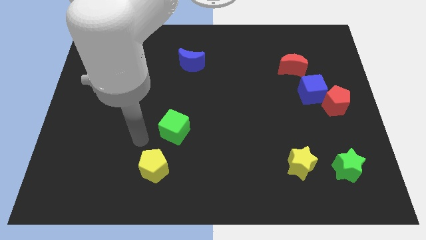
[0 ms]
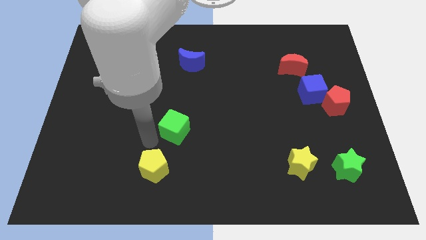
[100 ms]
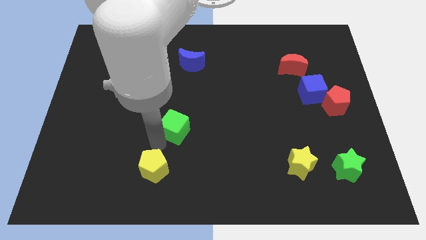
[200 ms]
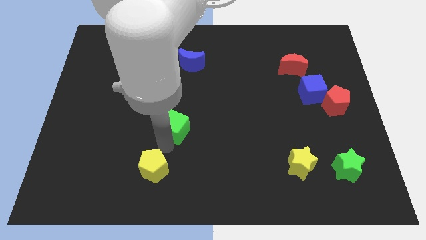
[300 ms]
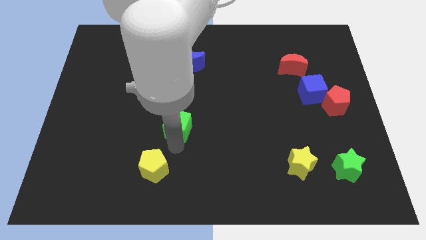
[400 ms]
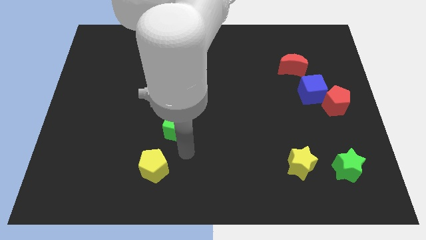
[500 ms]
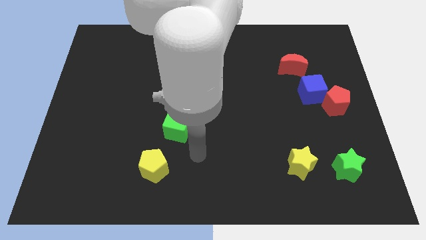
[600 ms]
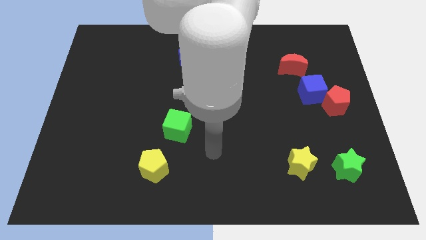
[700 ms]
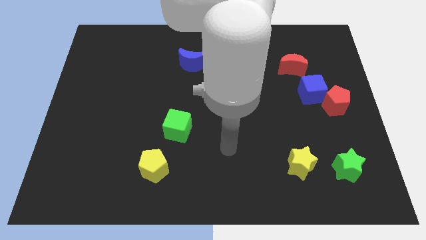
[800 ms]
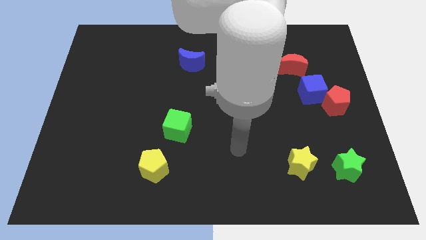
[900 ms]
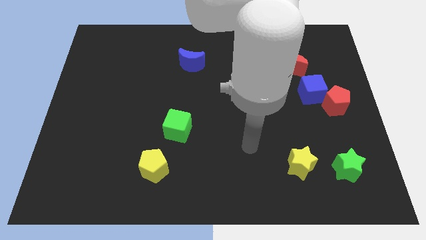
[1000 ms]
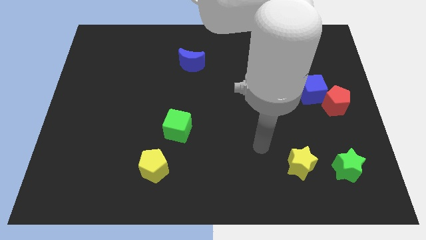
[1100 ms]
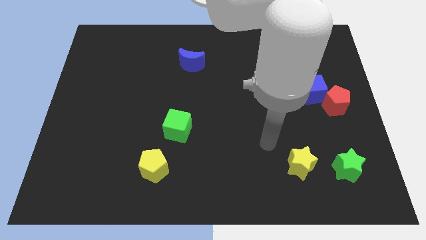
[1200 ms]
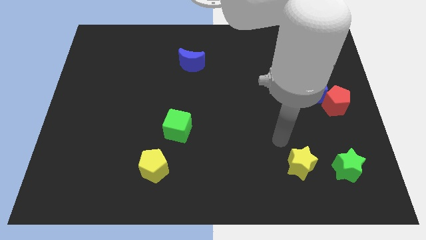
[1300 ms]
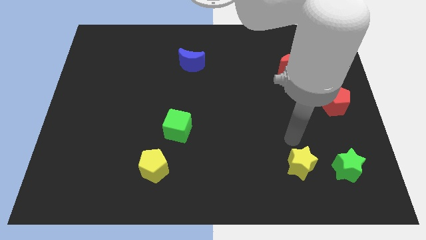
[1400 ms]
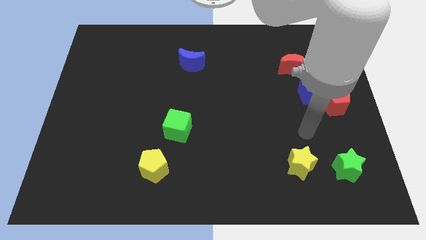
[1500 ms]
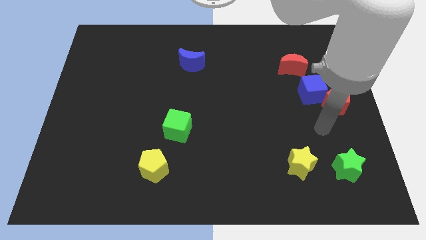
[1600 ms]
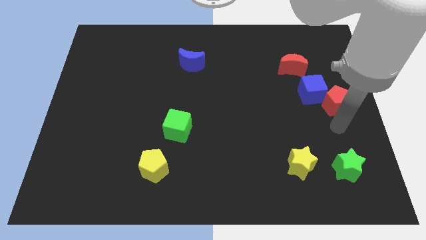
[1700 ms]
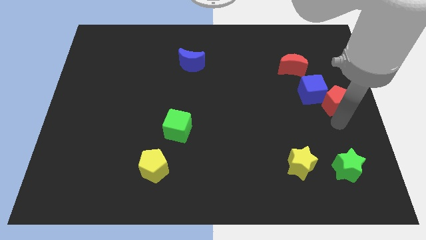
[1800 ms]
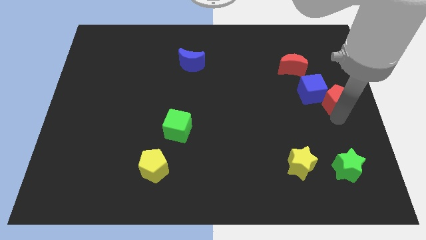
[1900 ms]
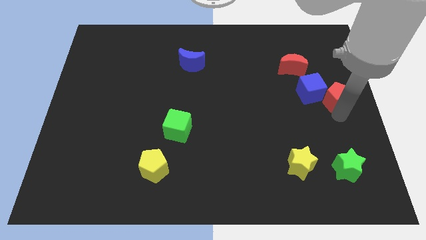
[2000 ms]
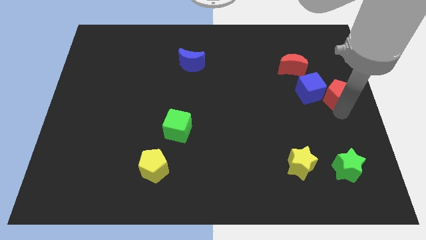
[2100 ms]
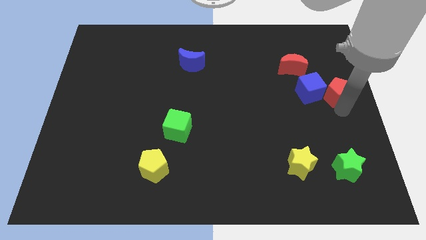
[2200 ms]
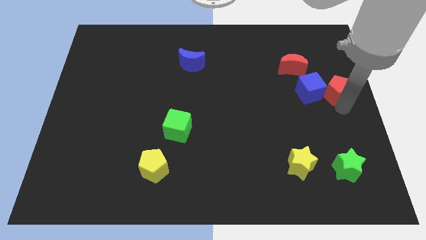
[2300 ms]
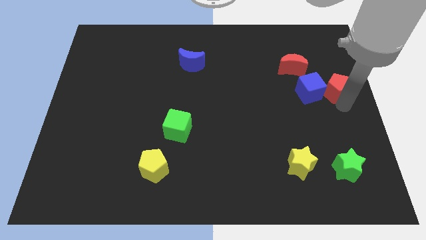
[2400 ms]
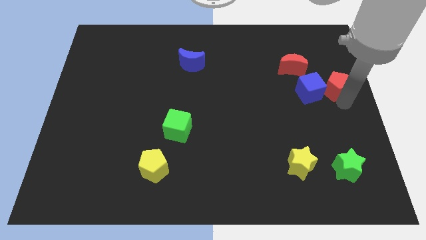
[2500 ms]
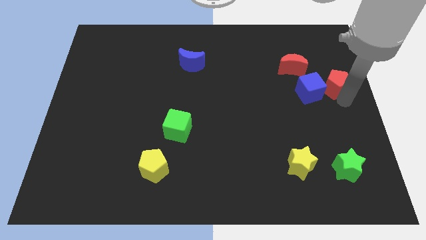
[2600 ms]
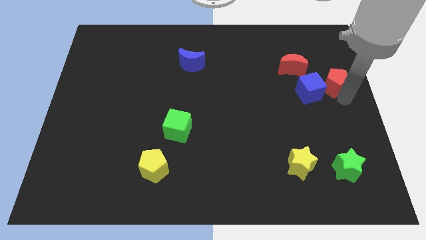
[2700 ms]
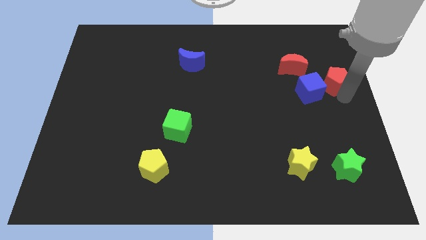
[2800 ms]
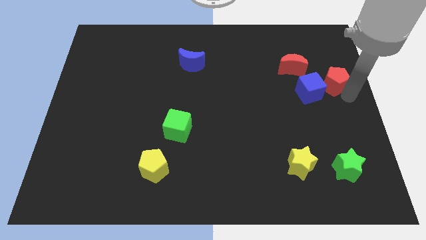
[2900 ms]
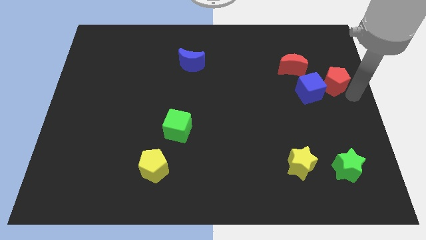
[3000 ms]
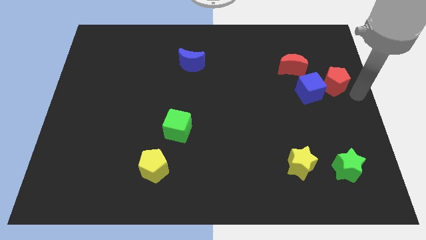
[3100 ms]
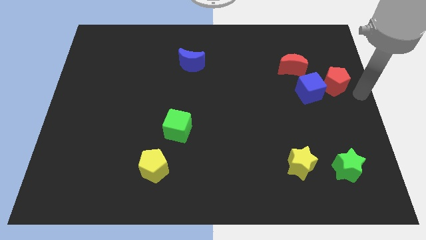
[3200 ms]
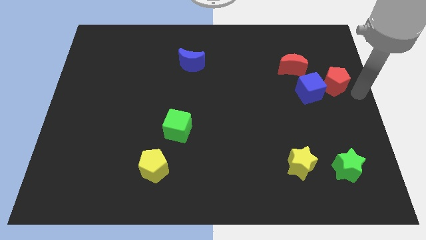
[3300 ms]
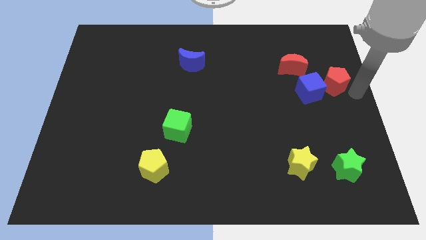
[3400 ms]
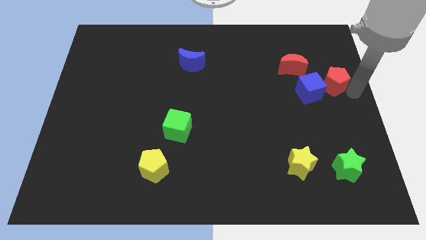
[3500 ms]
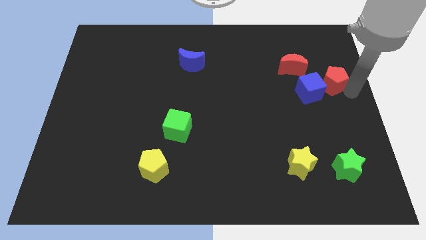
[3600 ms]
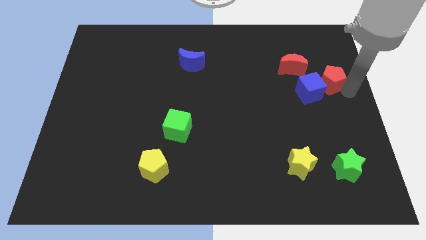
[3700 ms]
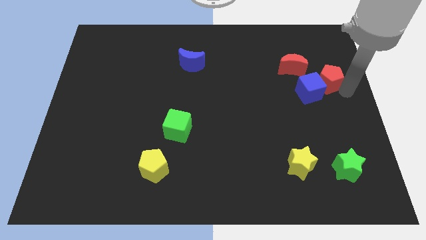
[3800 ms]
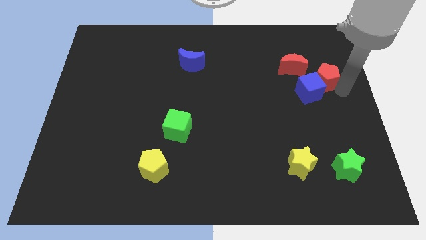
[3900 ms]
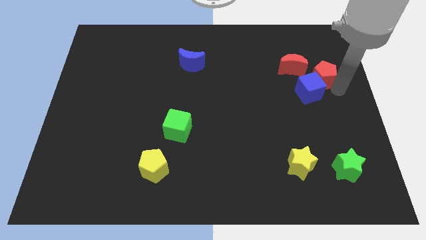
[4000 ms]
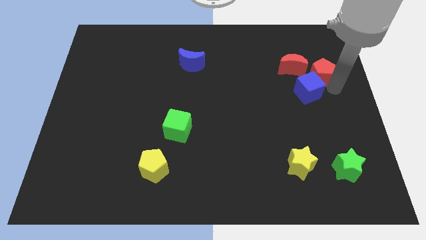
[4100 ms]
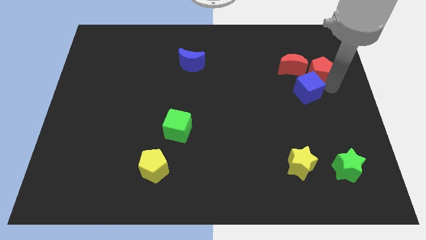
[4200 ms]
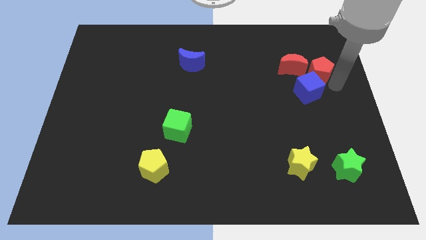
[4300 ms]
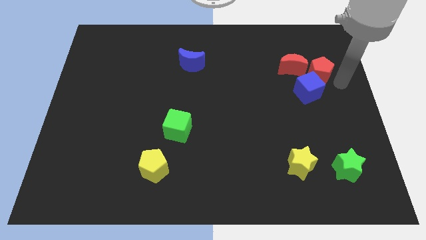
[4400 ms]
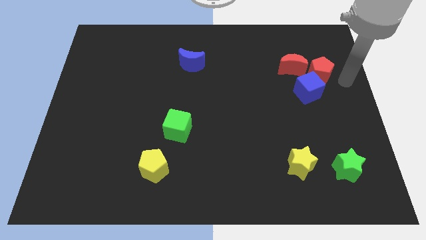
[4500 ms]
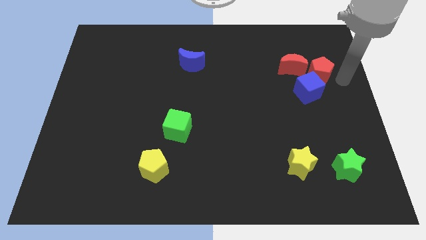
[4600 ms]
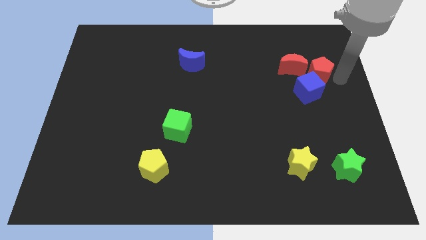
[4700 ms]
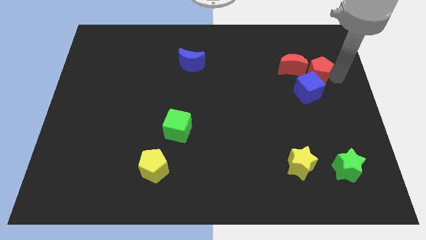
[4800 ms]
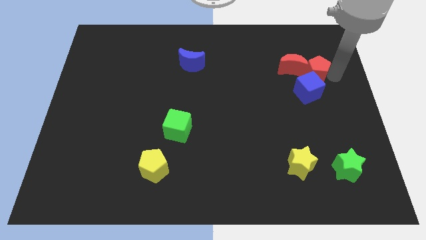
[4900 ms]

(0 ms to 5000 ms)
put the red pentagon to the red moon

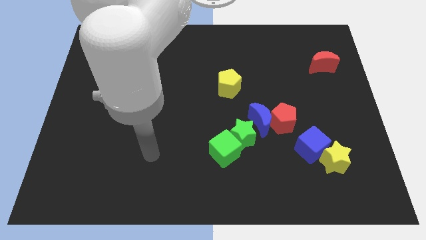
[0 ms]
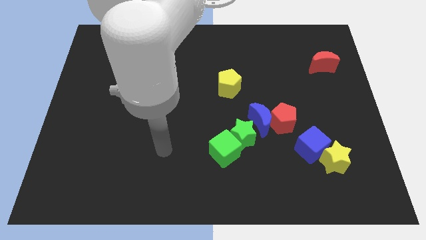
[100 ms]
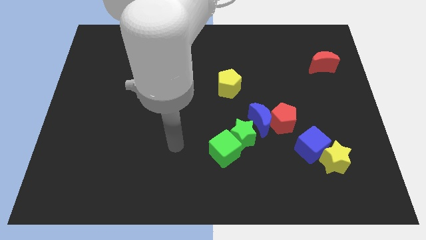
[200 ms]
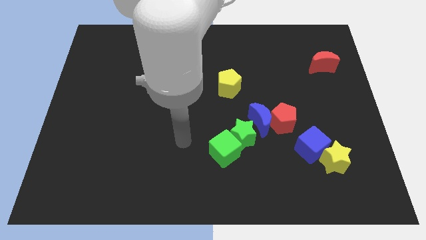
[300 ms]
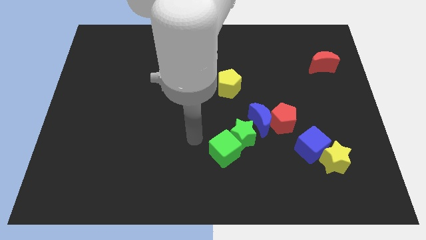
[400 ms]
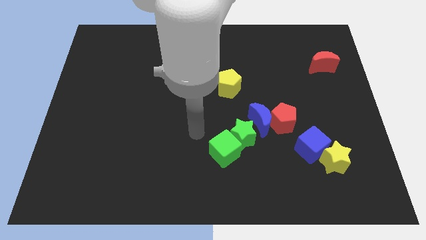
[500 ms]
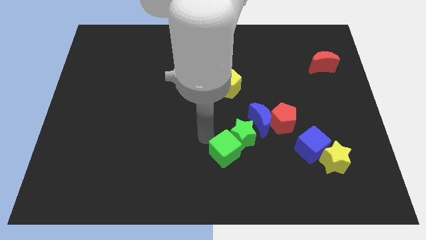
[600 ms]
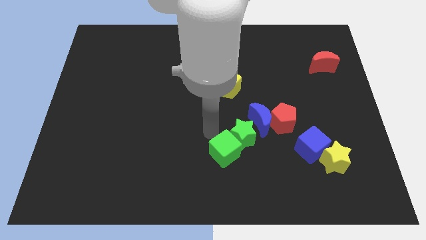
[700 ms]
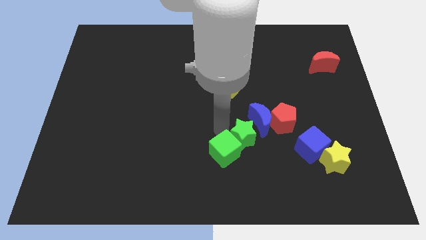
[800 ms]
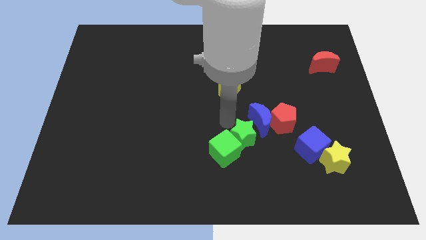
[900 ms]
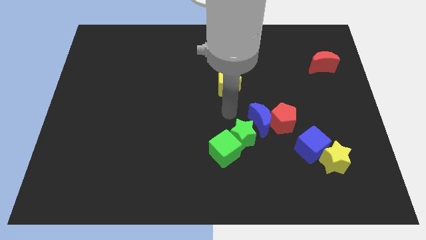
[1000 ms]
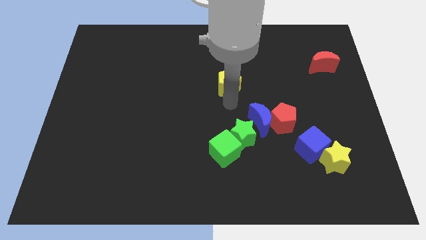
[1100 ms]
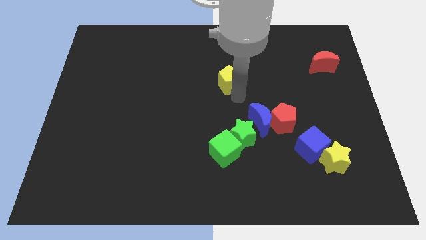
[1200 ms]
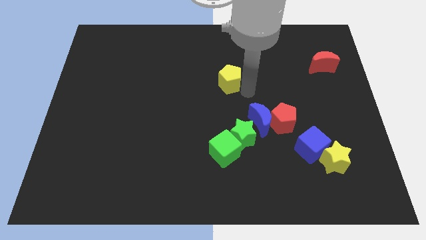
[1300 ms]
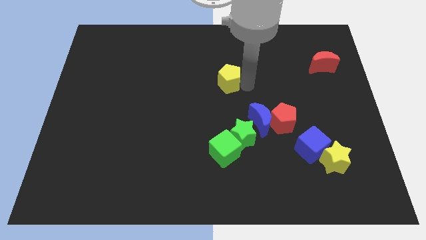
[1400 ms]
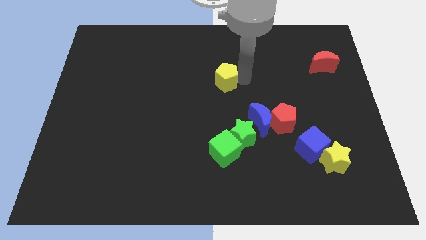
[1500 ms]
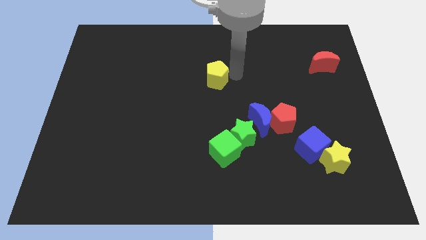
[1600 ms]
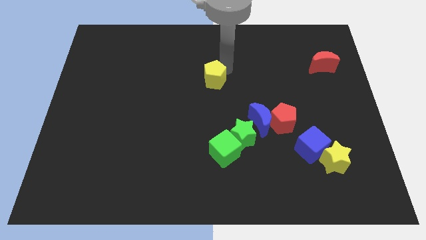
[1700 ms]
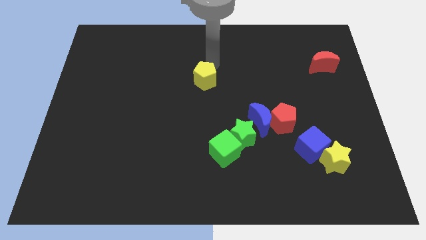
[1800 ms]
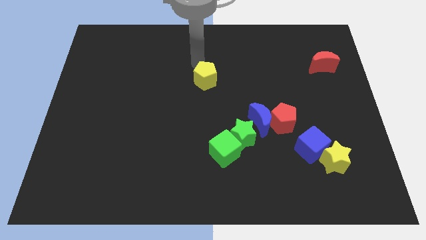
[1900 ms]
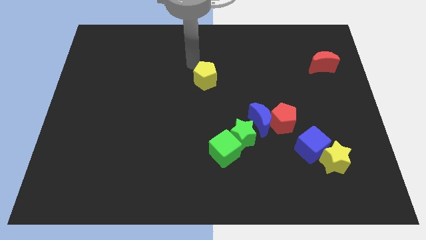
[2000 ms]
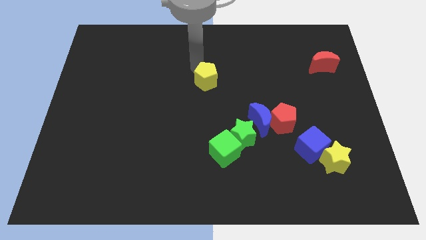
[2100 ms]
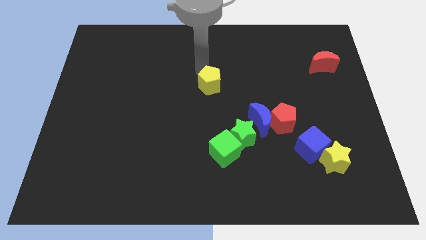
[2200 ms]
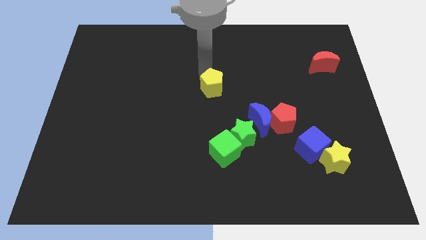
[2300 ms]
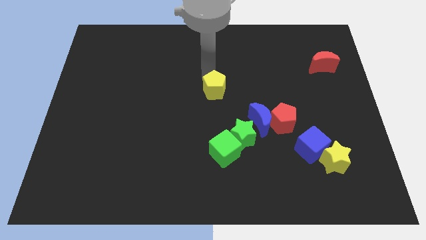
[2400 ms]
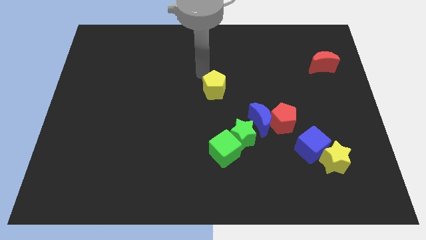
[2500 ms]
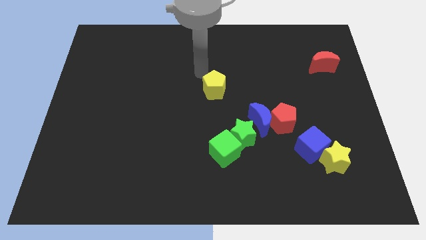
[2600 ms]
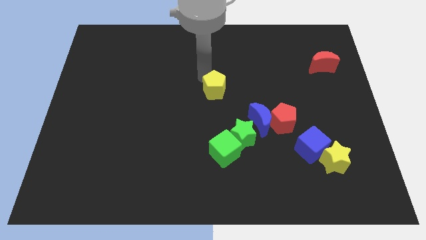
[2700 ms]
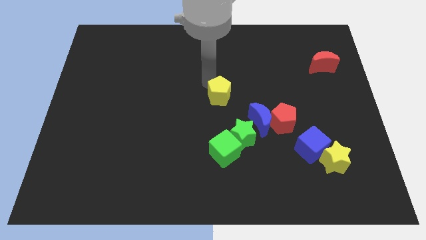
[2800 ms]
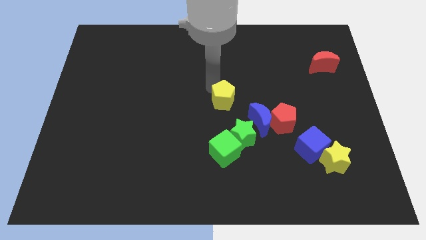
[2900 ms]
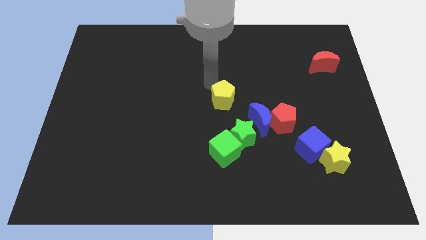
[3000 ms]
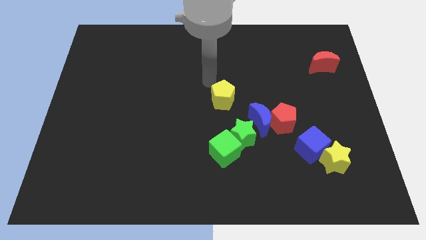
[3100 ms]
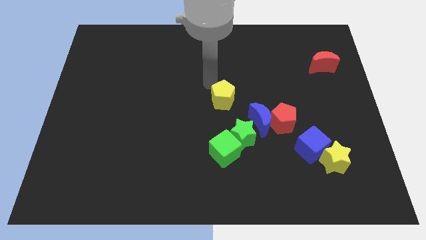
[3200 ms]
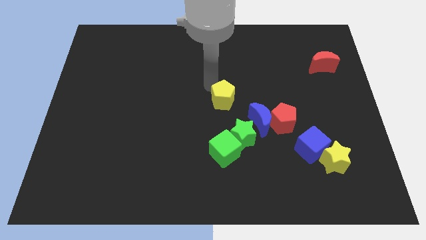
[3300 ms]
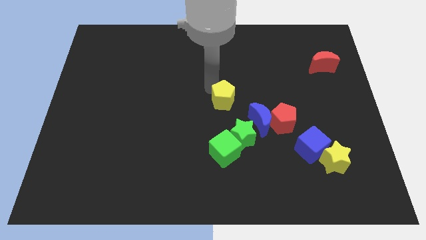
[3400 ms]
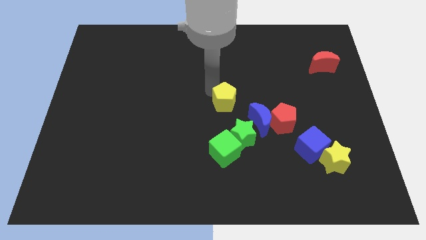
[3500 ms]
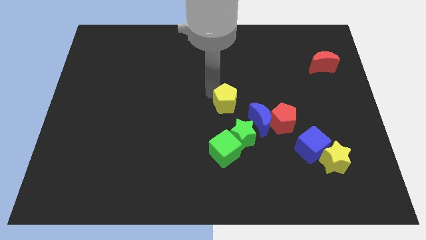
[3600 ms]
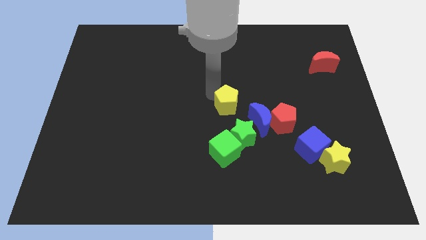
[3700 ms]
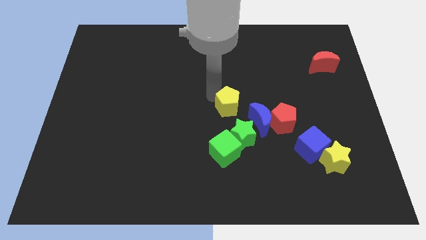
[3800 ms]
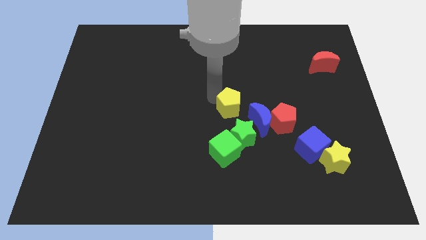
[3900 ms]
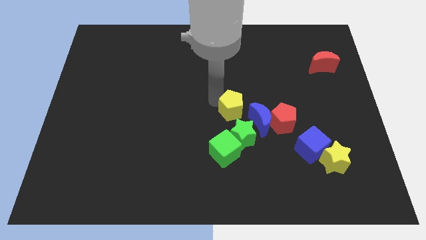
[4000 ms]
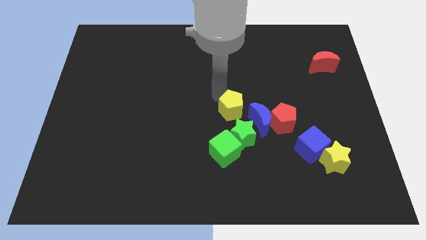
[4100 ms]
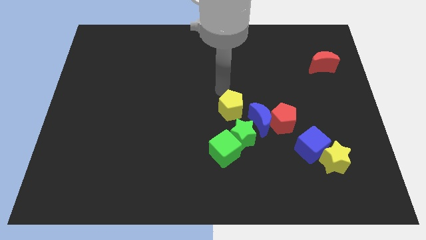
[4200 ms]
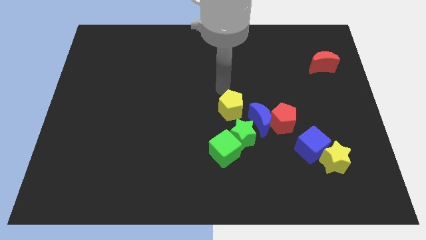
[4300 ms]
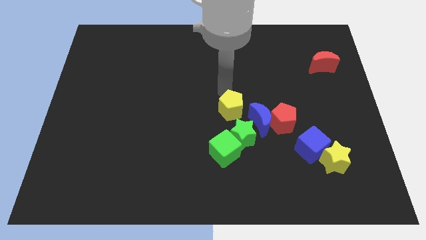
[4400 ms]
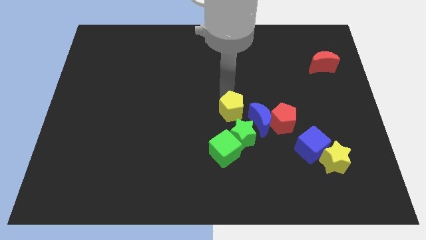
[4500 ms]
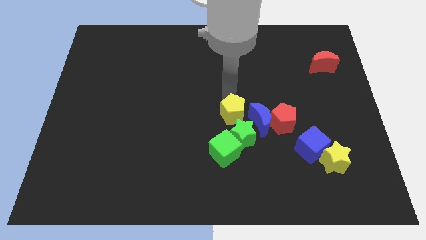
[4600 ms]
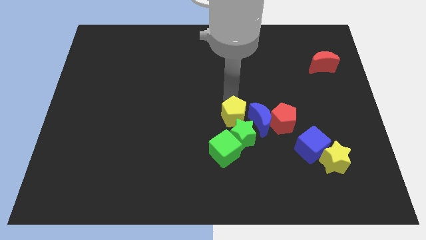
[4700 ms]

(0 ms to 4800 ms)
push the yellow pentagon to the green star
